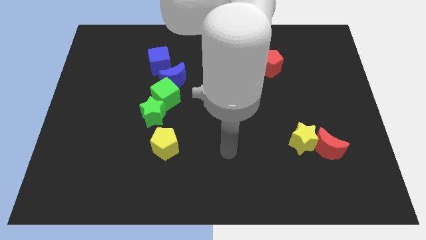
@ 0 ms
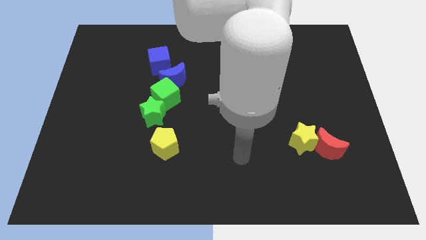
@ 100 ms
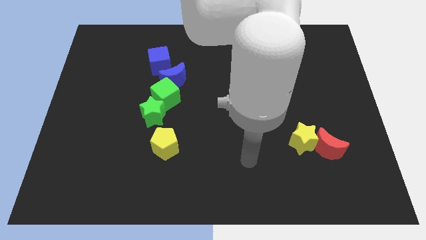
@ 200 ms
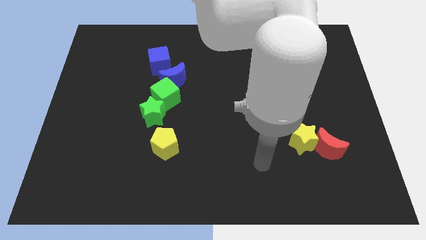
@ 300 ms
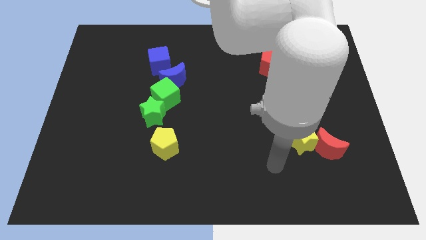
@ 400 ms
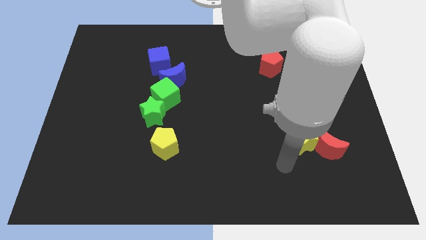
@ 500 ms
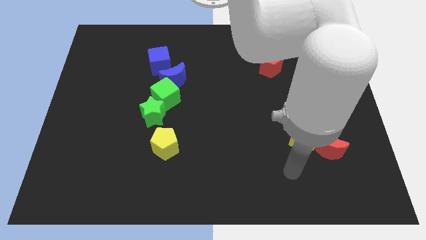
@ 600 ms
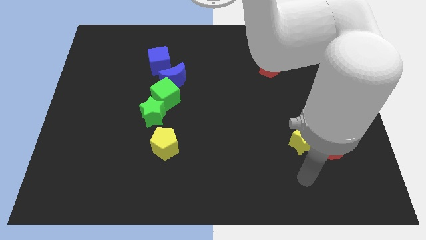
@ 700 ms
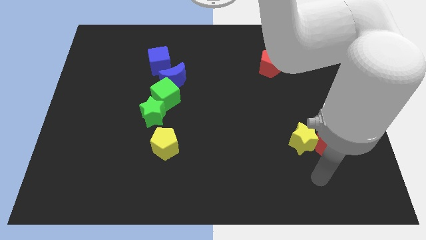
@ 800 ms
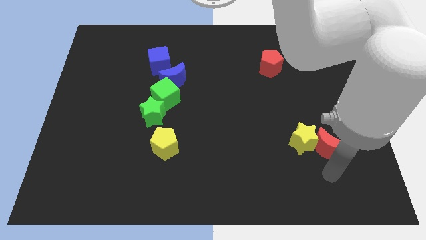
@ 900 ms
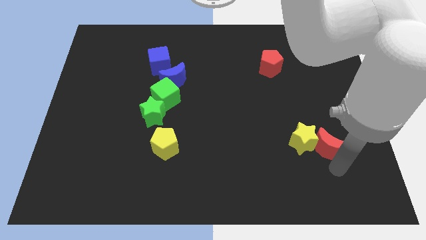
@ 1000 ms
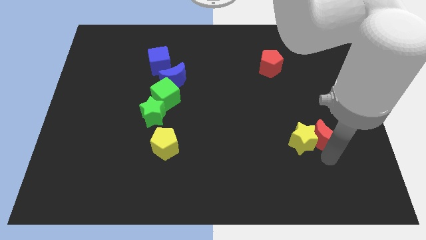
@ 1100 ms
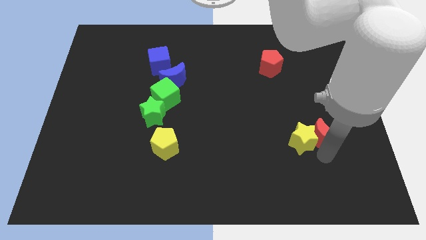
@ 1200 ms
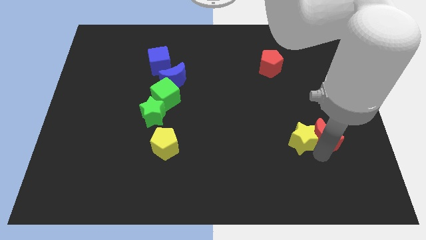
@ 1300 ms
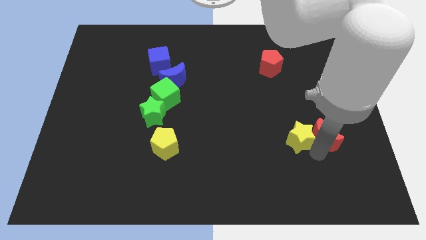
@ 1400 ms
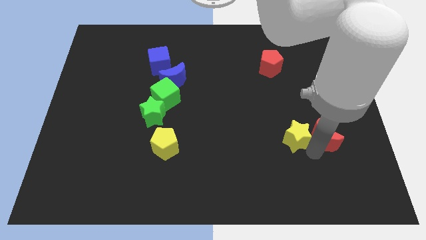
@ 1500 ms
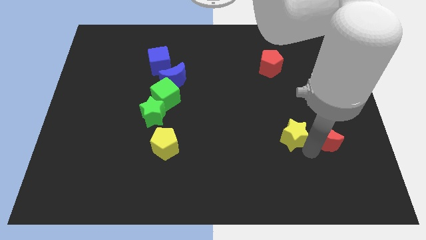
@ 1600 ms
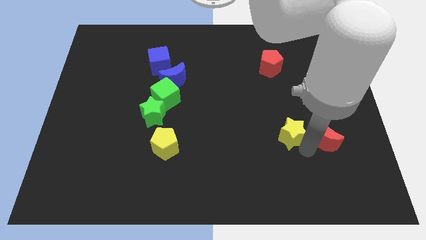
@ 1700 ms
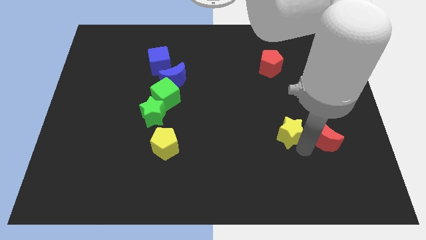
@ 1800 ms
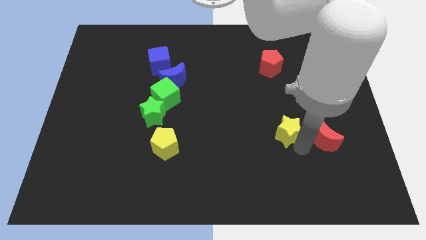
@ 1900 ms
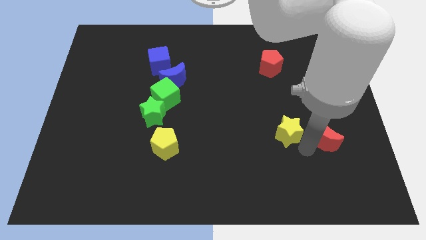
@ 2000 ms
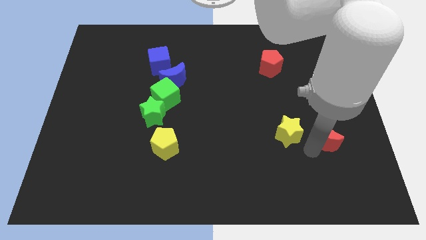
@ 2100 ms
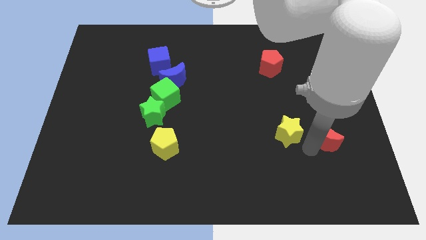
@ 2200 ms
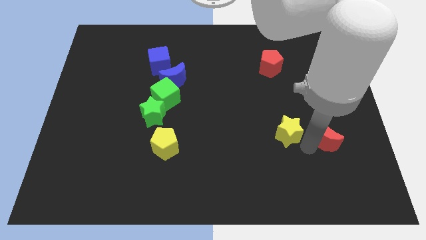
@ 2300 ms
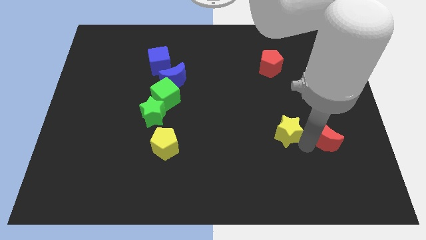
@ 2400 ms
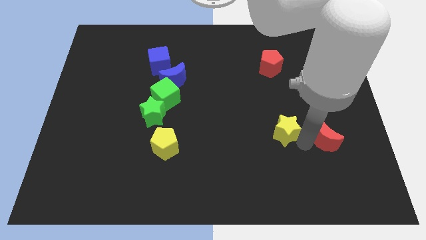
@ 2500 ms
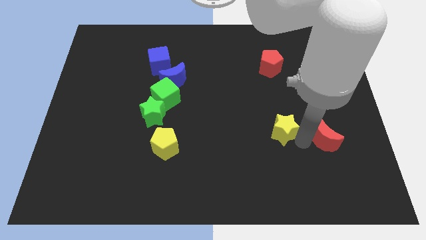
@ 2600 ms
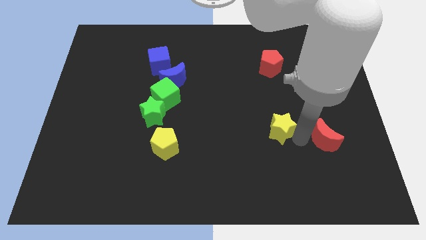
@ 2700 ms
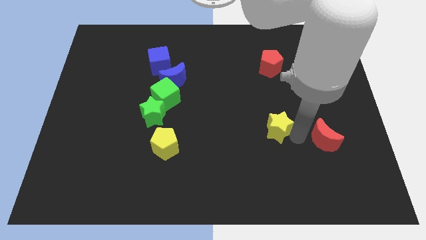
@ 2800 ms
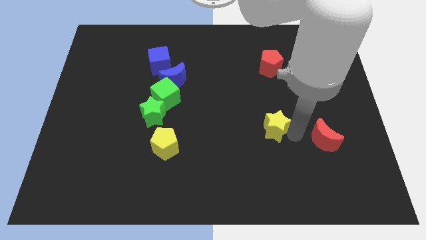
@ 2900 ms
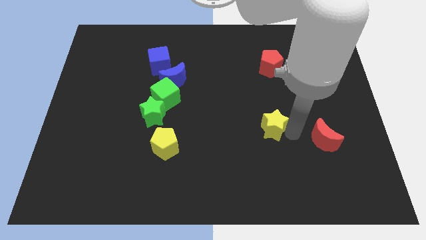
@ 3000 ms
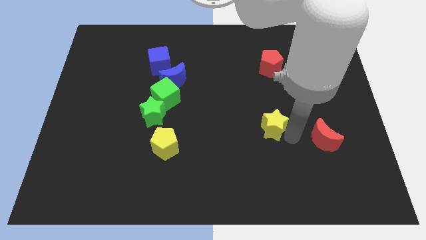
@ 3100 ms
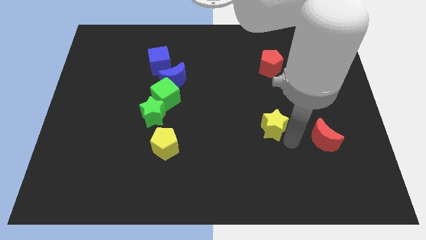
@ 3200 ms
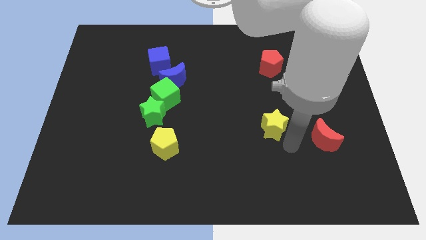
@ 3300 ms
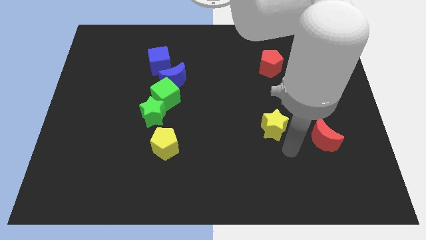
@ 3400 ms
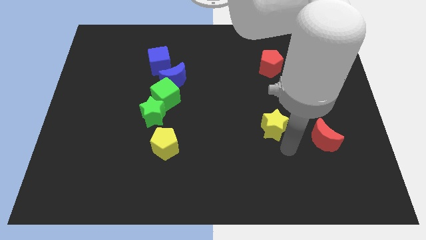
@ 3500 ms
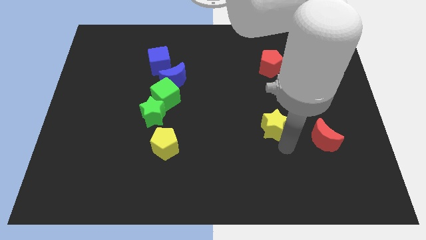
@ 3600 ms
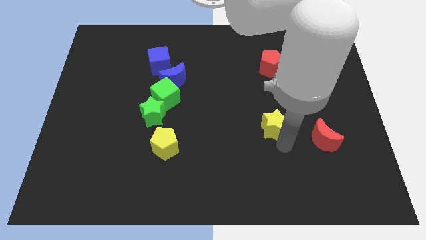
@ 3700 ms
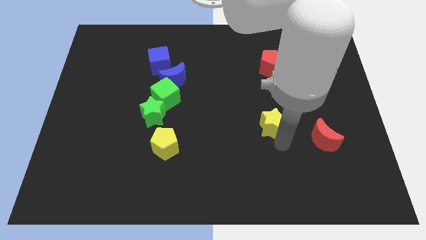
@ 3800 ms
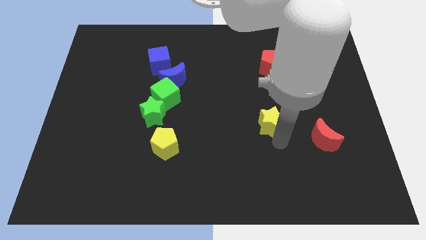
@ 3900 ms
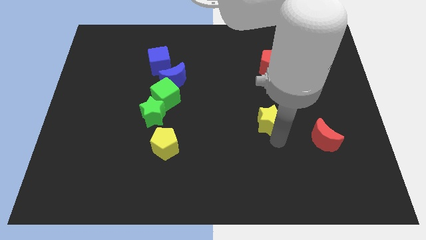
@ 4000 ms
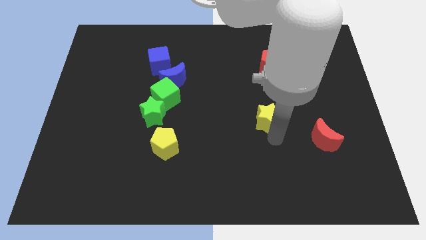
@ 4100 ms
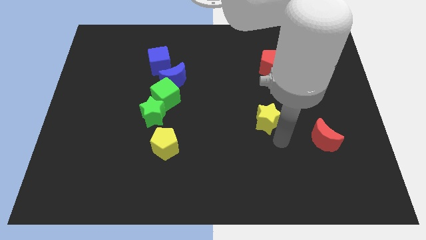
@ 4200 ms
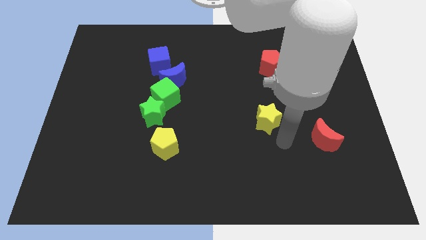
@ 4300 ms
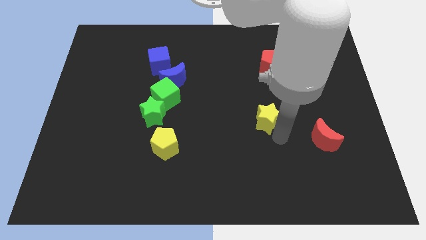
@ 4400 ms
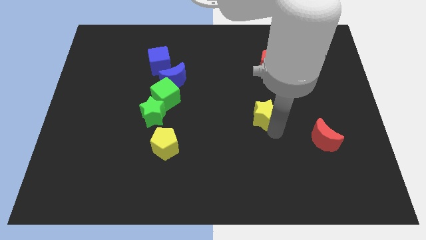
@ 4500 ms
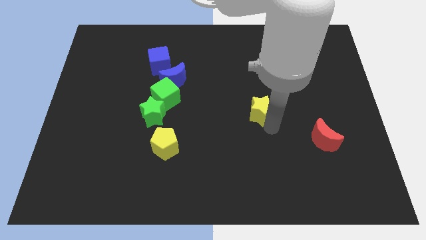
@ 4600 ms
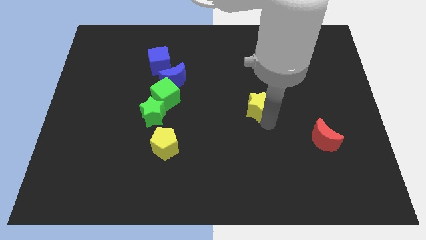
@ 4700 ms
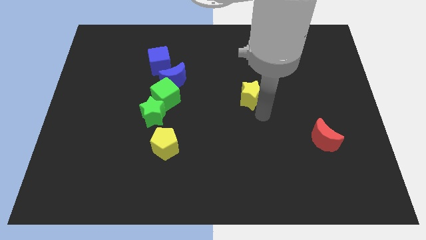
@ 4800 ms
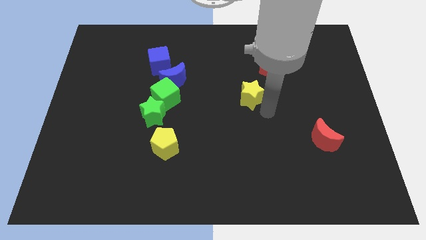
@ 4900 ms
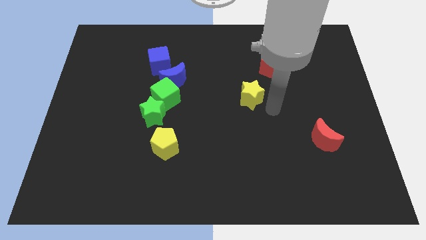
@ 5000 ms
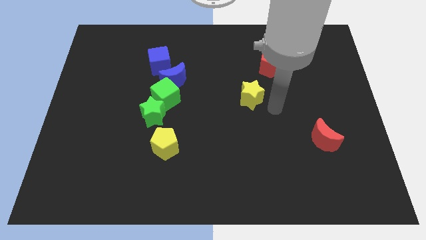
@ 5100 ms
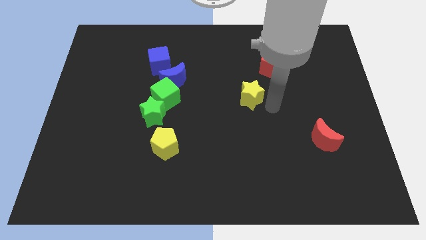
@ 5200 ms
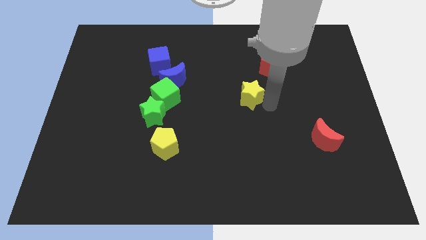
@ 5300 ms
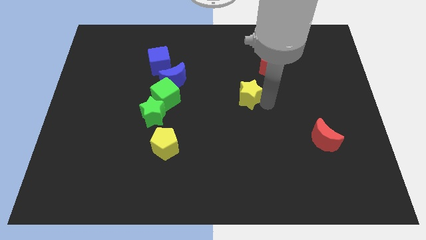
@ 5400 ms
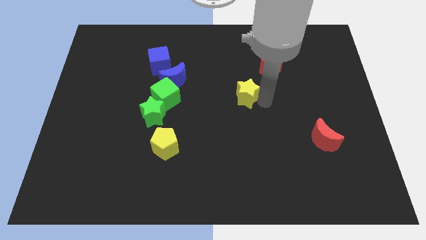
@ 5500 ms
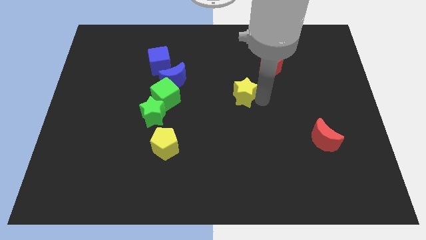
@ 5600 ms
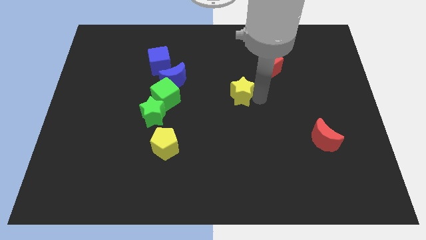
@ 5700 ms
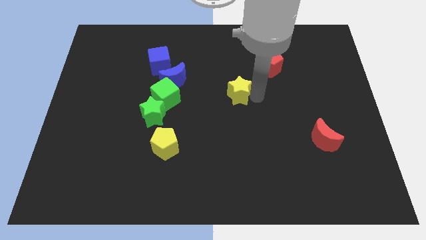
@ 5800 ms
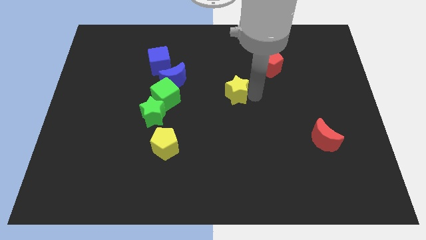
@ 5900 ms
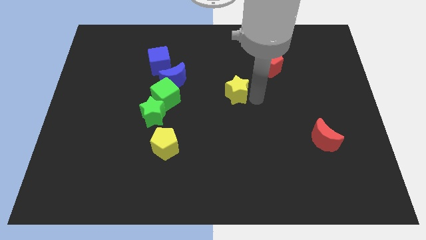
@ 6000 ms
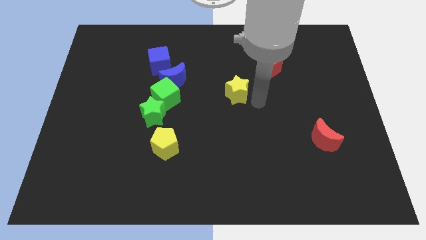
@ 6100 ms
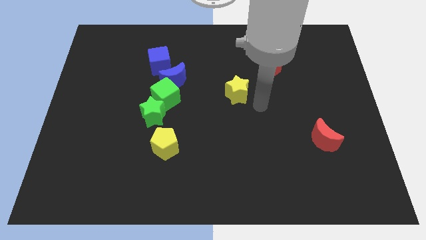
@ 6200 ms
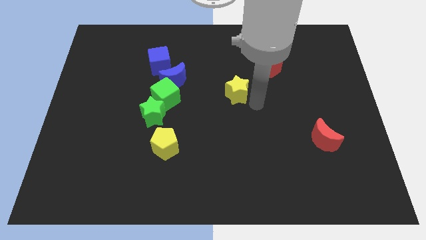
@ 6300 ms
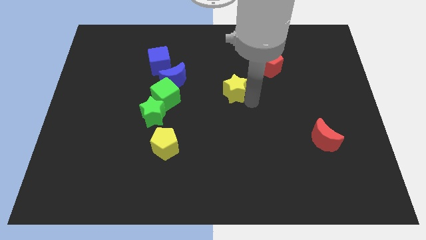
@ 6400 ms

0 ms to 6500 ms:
move the yellow star up and to the left diagonally

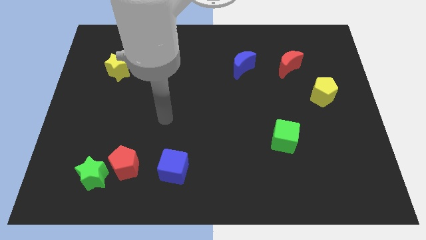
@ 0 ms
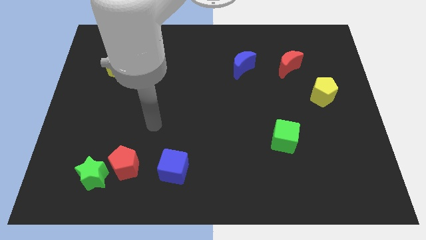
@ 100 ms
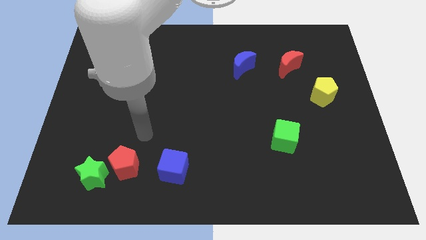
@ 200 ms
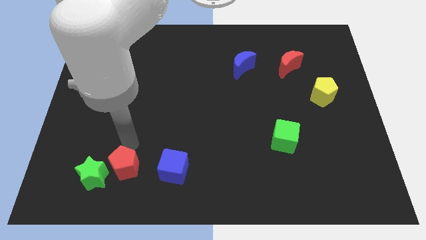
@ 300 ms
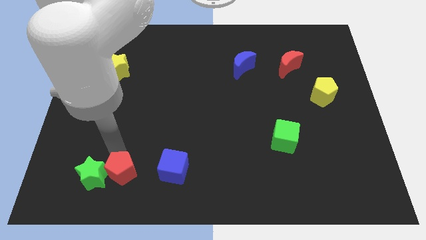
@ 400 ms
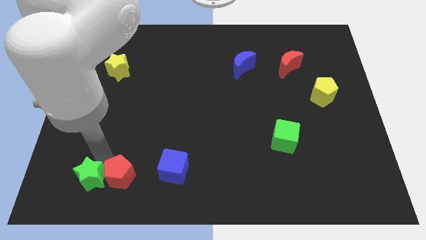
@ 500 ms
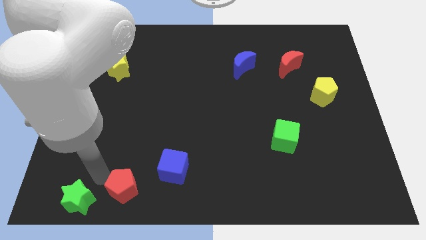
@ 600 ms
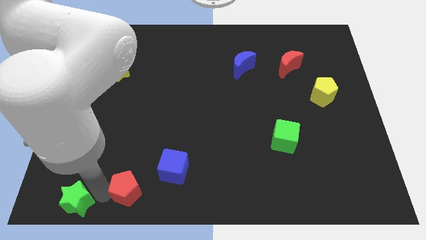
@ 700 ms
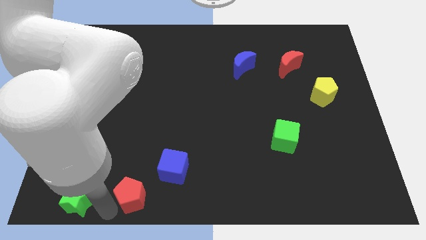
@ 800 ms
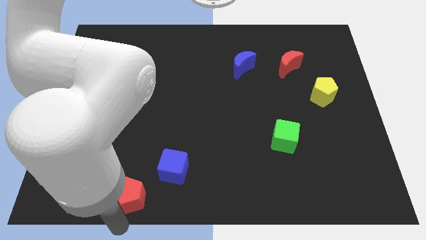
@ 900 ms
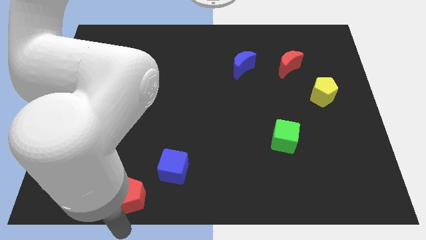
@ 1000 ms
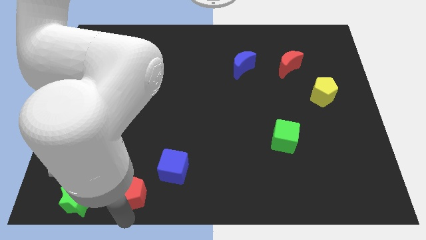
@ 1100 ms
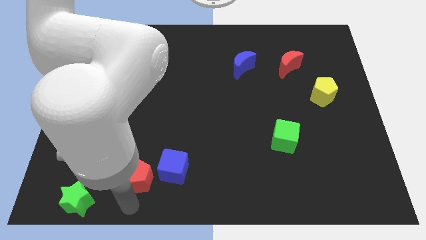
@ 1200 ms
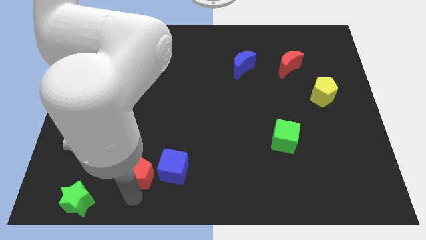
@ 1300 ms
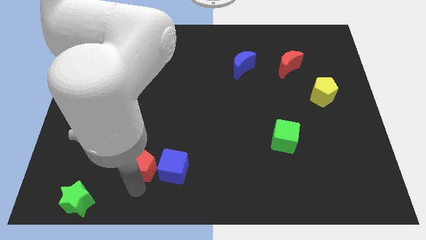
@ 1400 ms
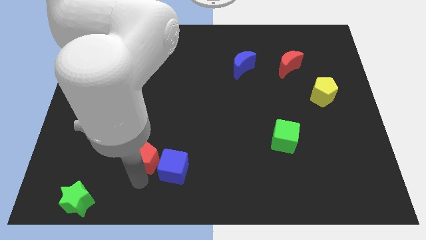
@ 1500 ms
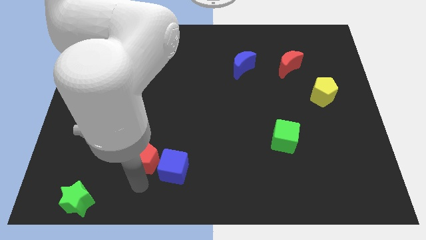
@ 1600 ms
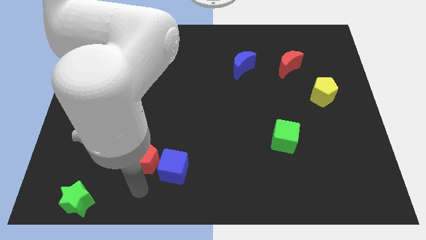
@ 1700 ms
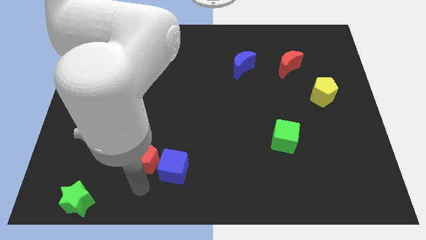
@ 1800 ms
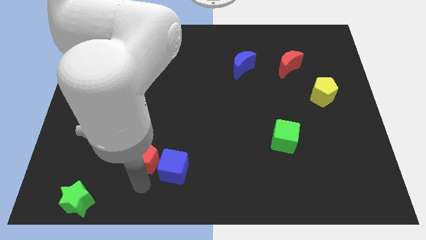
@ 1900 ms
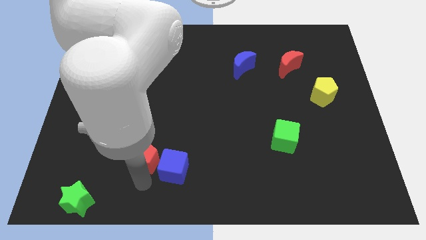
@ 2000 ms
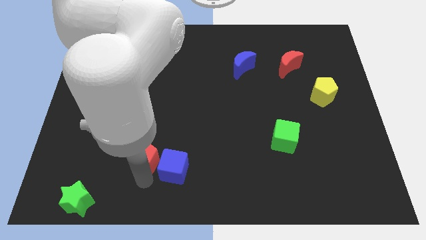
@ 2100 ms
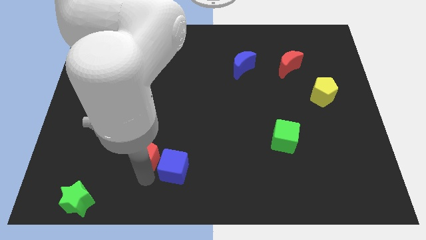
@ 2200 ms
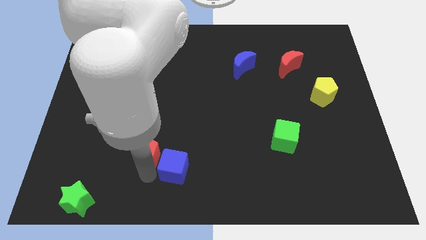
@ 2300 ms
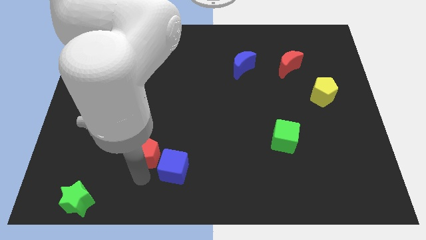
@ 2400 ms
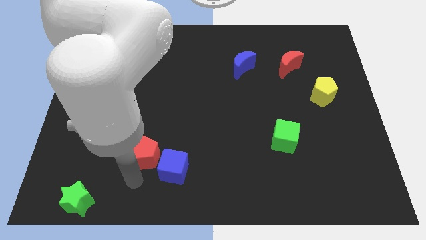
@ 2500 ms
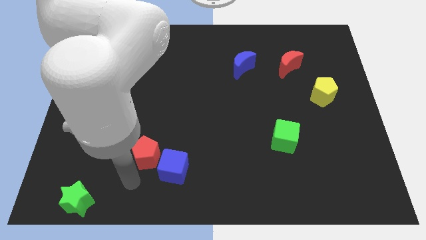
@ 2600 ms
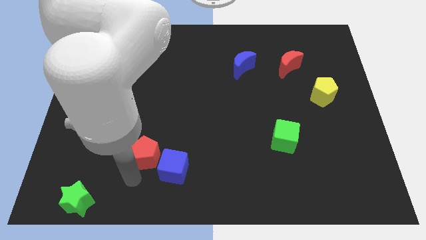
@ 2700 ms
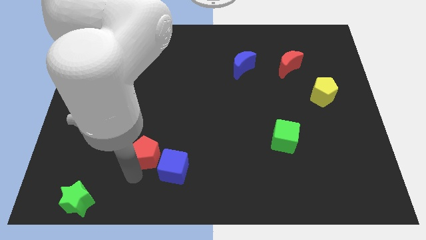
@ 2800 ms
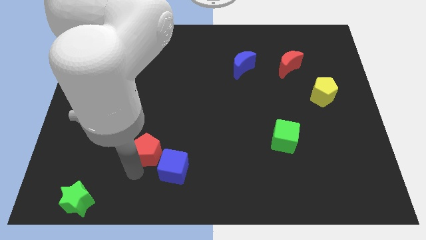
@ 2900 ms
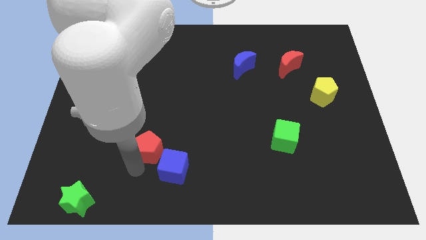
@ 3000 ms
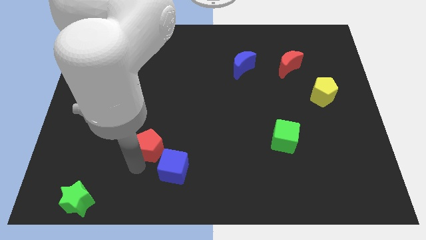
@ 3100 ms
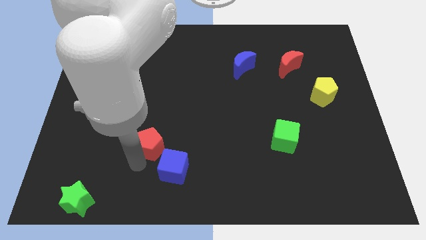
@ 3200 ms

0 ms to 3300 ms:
slide the red pentagon upwards and then right somewhat
